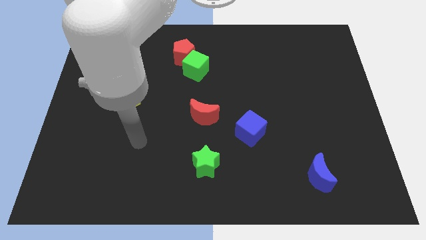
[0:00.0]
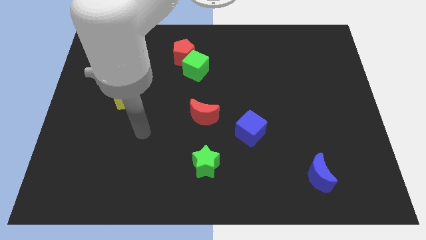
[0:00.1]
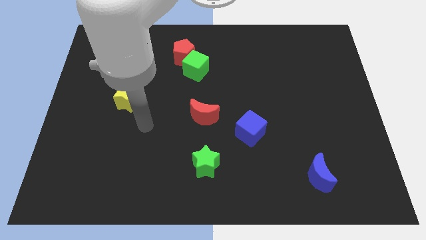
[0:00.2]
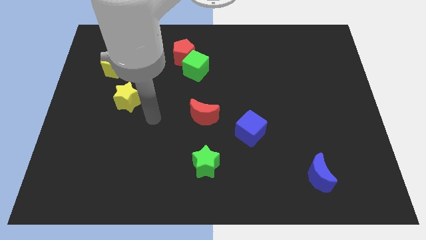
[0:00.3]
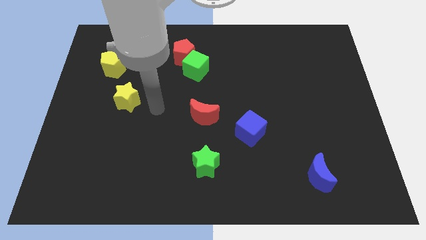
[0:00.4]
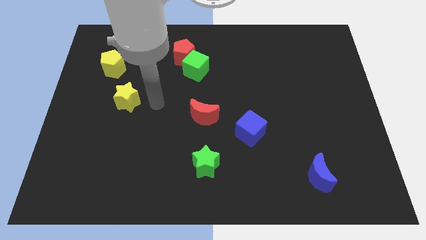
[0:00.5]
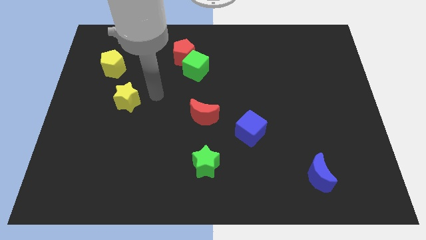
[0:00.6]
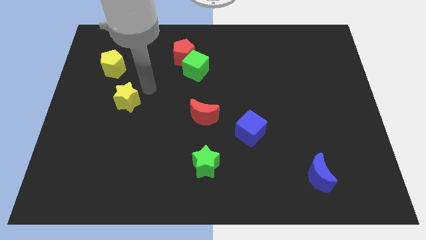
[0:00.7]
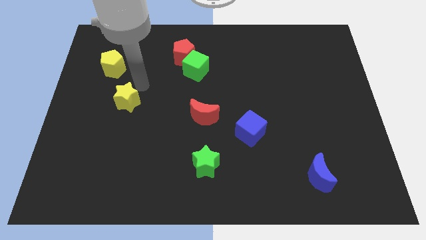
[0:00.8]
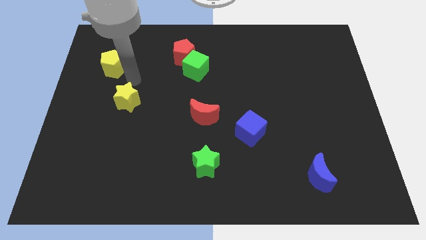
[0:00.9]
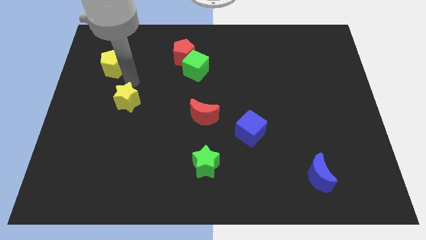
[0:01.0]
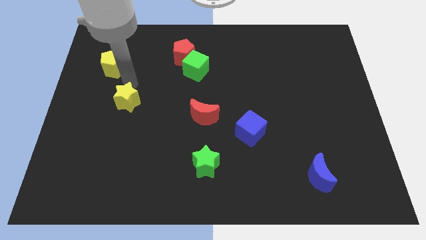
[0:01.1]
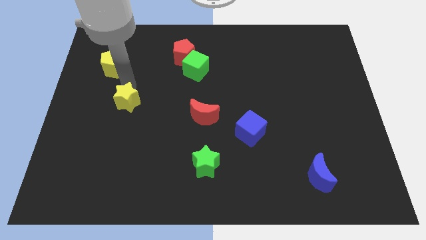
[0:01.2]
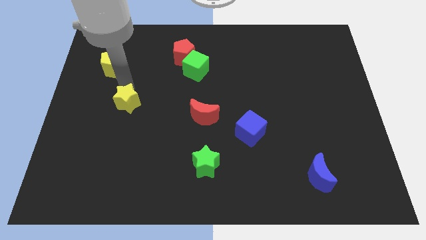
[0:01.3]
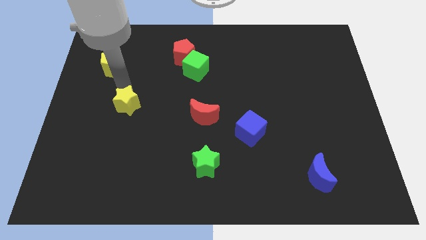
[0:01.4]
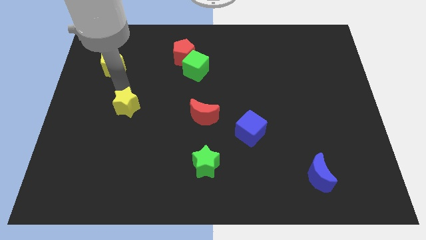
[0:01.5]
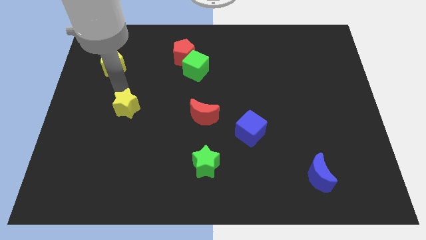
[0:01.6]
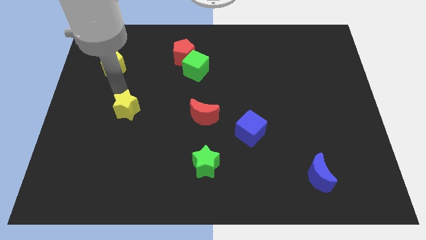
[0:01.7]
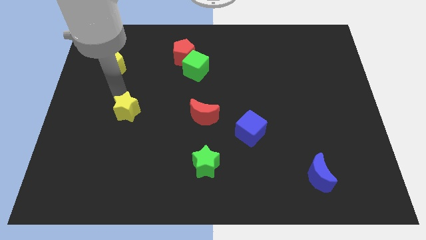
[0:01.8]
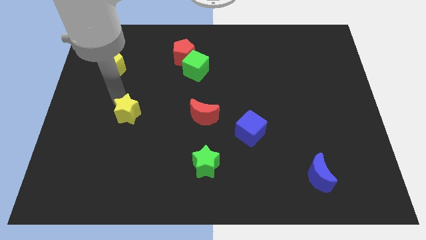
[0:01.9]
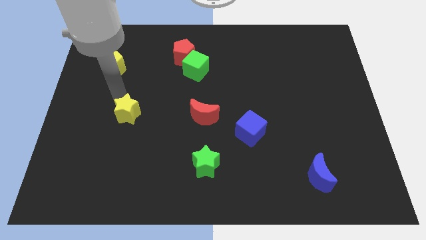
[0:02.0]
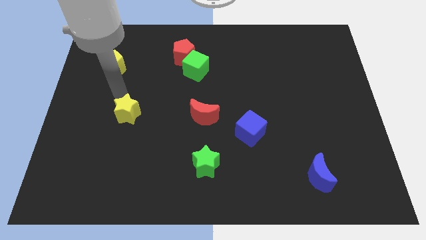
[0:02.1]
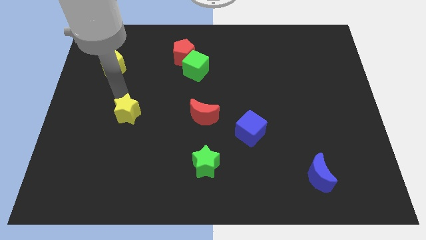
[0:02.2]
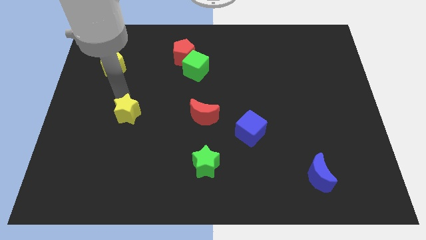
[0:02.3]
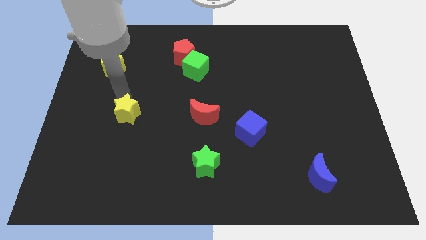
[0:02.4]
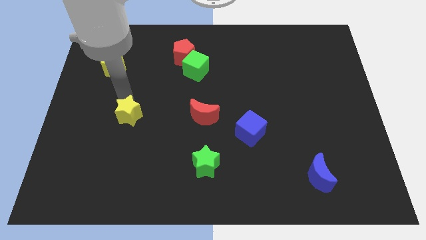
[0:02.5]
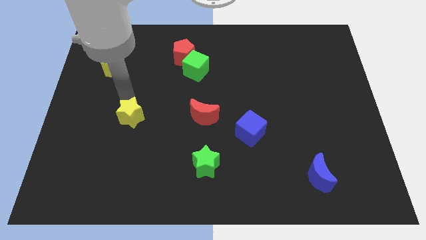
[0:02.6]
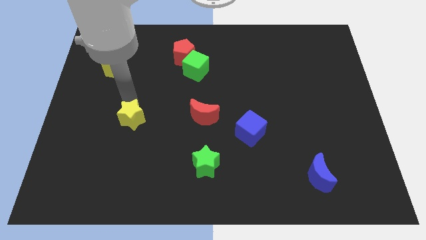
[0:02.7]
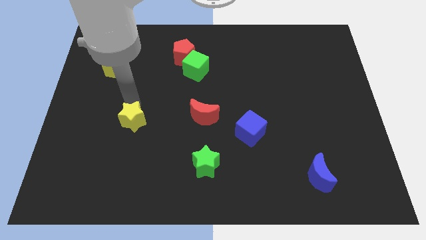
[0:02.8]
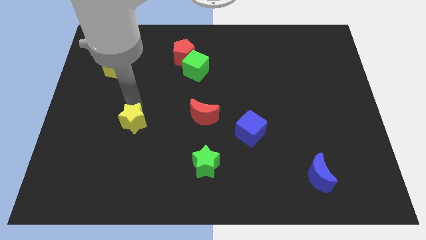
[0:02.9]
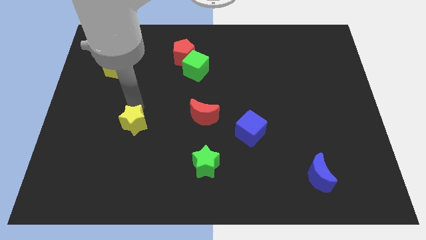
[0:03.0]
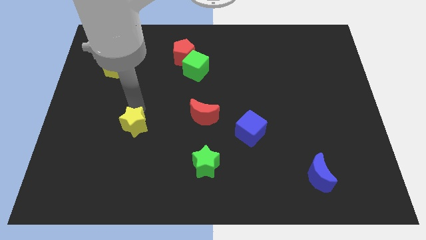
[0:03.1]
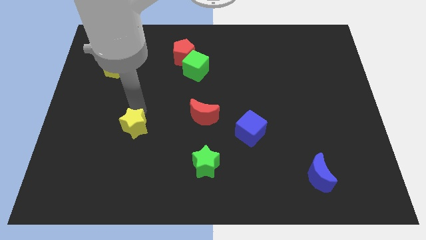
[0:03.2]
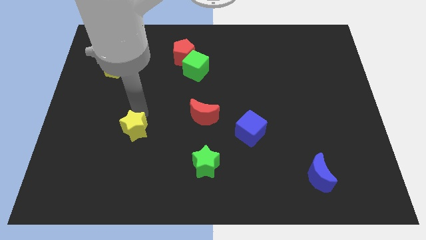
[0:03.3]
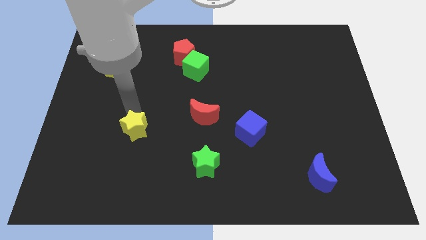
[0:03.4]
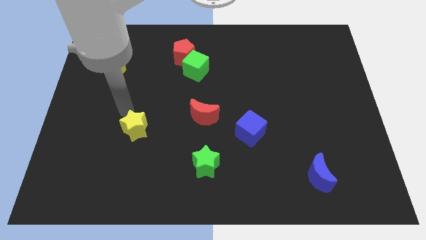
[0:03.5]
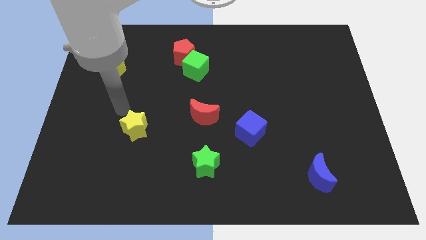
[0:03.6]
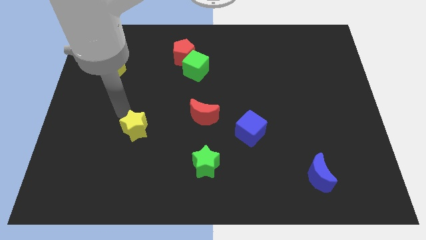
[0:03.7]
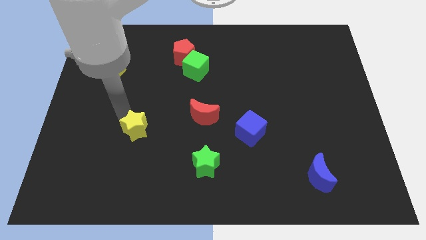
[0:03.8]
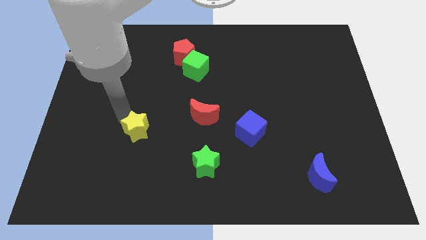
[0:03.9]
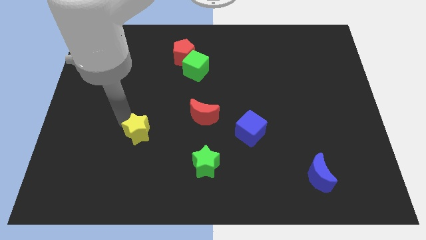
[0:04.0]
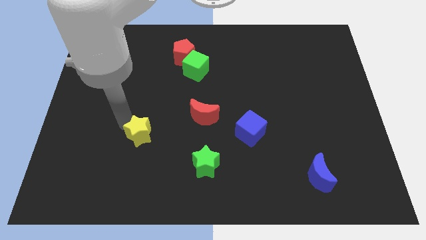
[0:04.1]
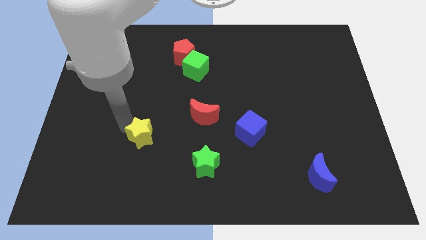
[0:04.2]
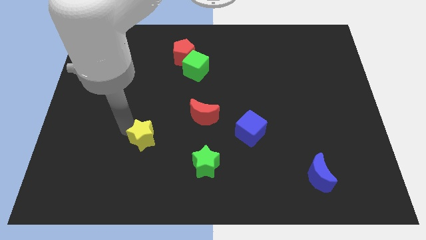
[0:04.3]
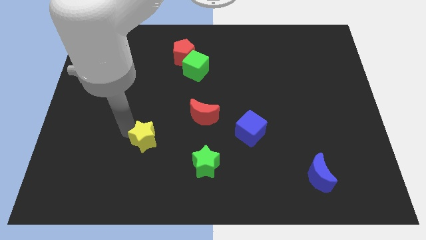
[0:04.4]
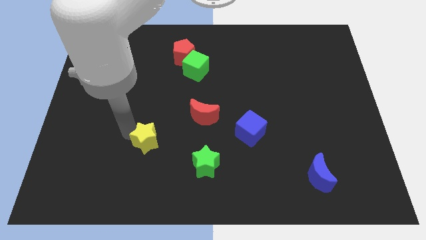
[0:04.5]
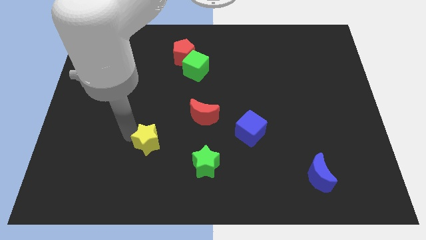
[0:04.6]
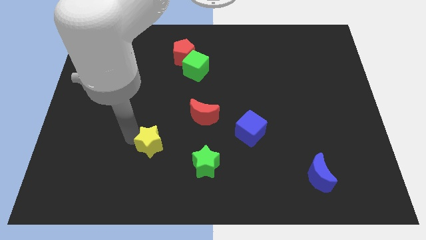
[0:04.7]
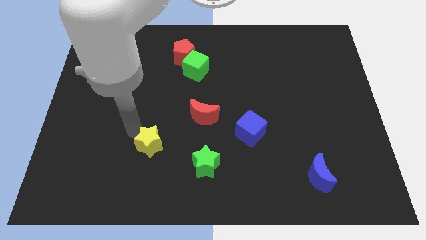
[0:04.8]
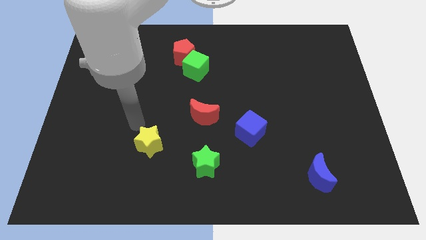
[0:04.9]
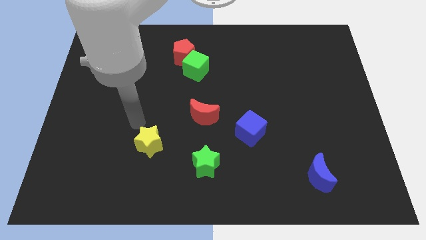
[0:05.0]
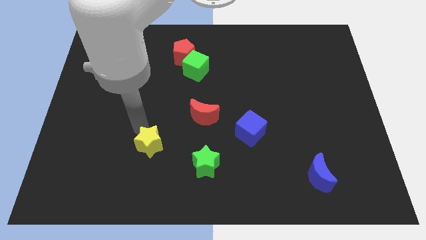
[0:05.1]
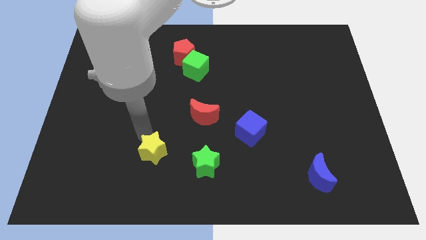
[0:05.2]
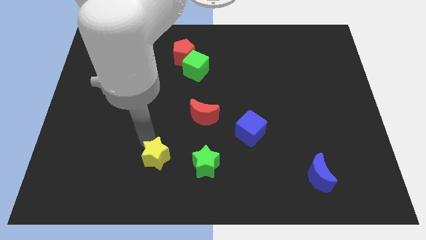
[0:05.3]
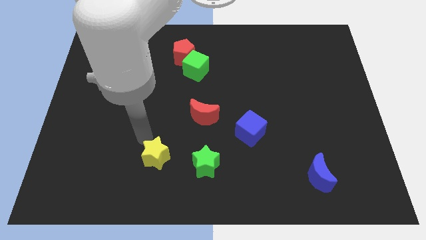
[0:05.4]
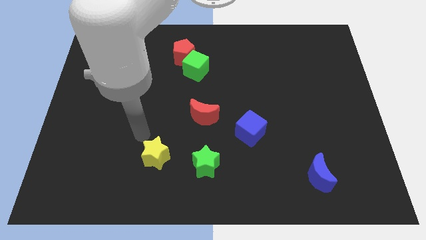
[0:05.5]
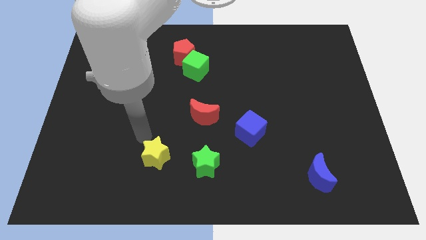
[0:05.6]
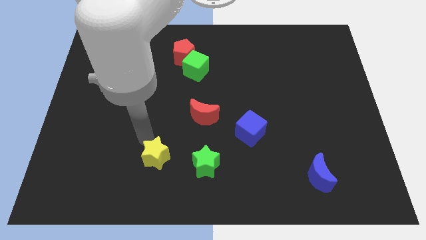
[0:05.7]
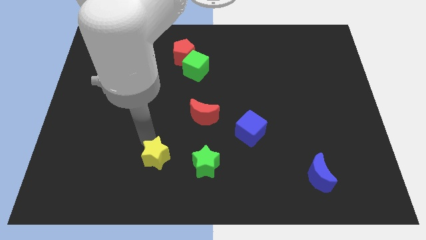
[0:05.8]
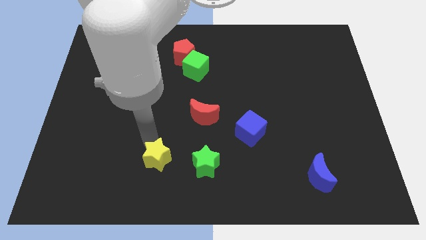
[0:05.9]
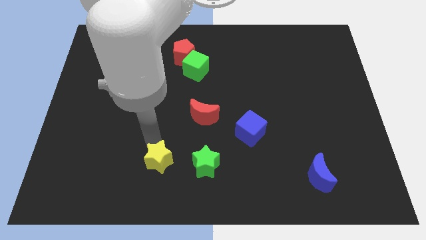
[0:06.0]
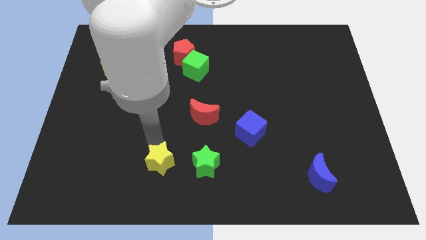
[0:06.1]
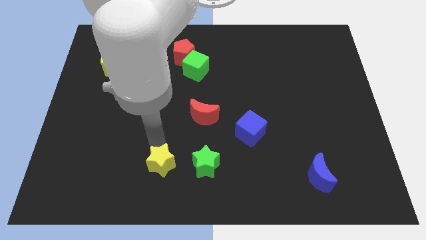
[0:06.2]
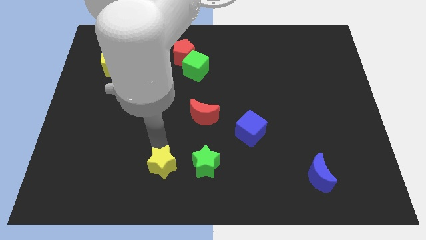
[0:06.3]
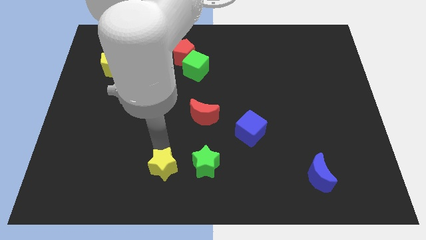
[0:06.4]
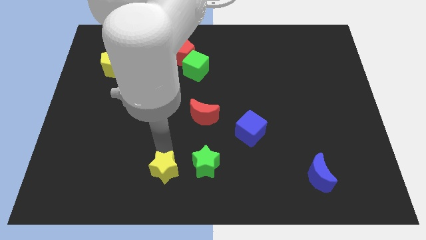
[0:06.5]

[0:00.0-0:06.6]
push the yellow star to the bottom side
